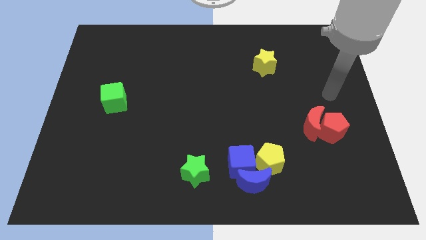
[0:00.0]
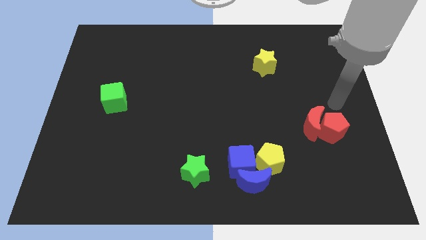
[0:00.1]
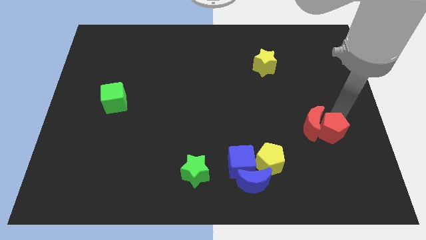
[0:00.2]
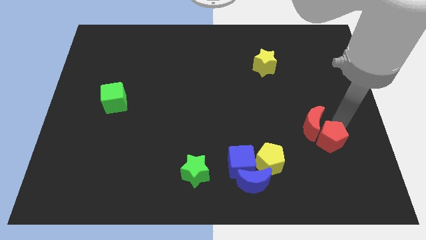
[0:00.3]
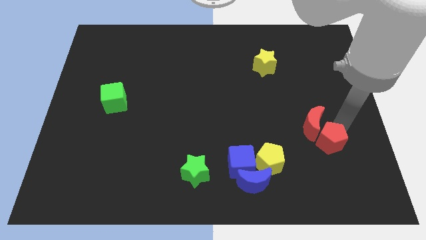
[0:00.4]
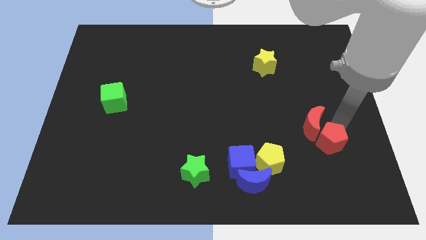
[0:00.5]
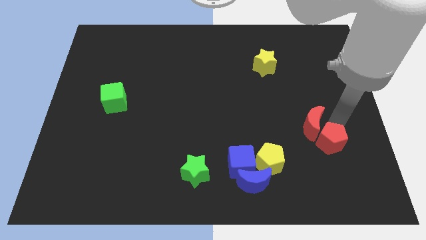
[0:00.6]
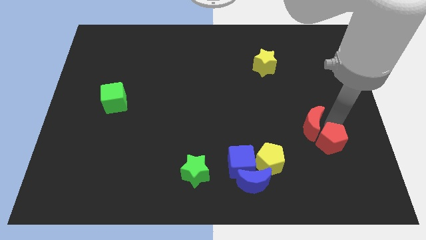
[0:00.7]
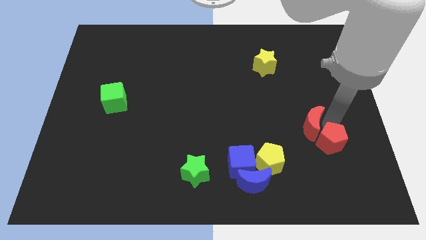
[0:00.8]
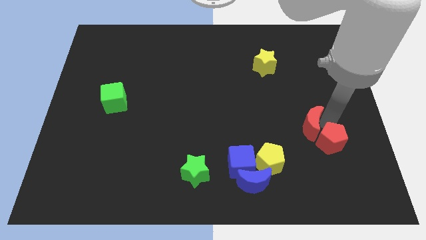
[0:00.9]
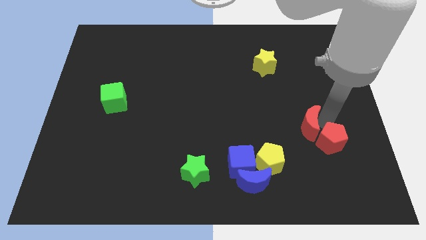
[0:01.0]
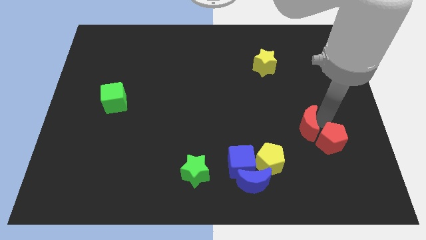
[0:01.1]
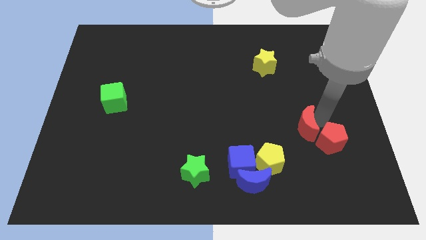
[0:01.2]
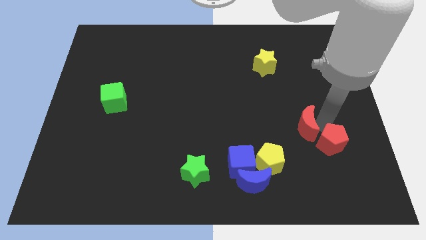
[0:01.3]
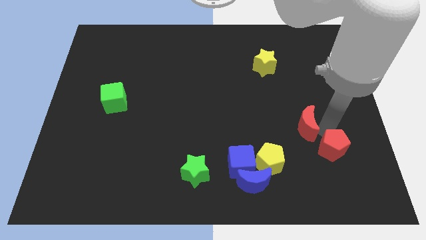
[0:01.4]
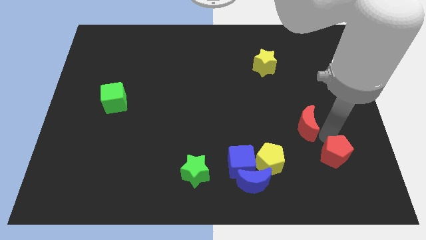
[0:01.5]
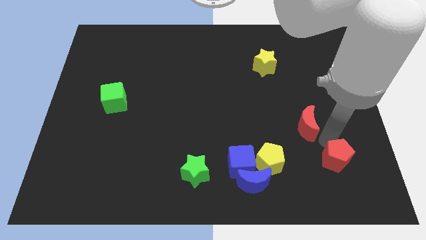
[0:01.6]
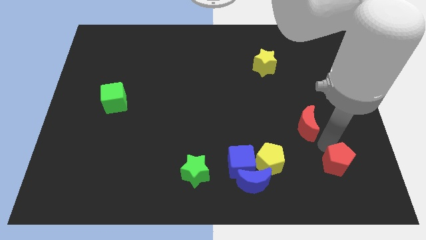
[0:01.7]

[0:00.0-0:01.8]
separate the red moon from the red pentagon

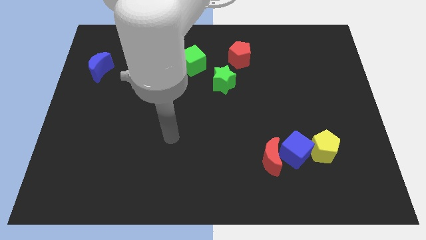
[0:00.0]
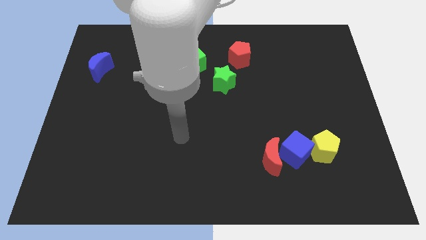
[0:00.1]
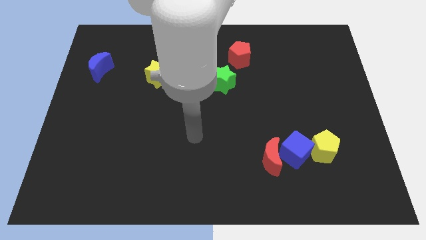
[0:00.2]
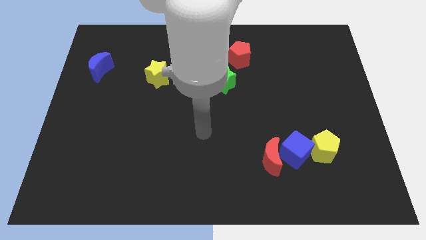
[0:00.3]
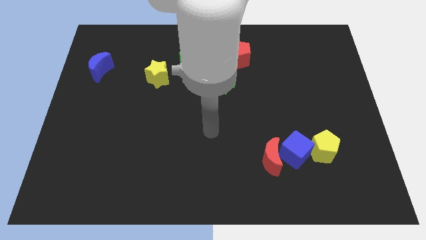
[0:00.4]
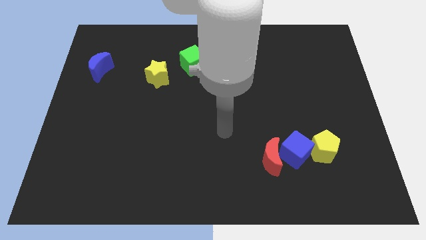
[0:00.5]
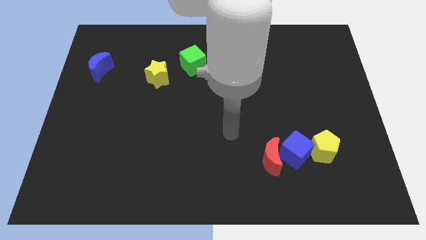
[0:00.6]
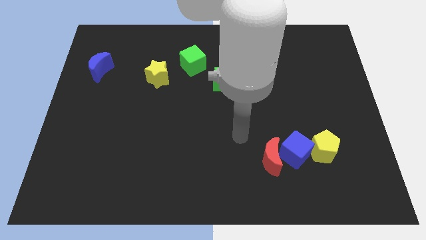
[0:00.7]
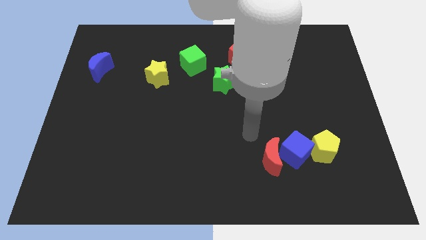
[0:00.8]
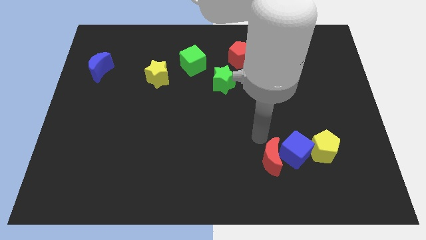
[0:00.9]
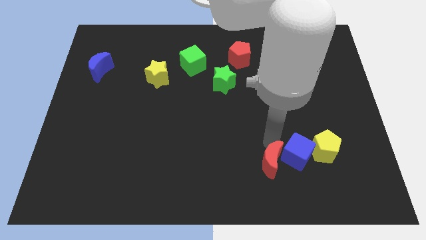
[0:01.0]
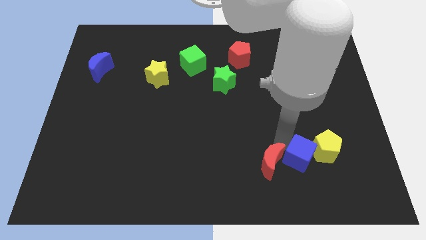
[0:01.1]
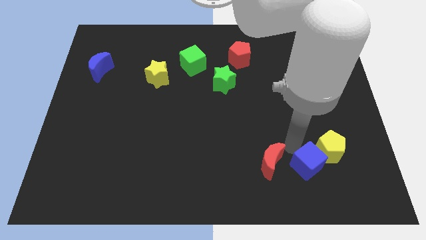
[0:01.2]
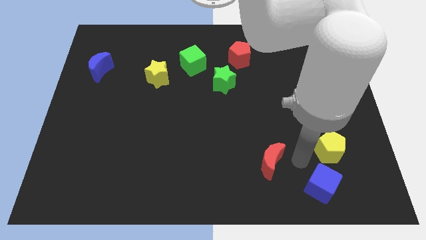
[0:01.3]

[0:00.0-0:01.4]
separate the red moon from the blue cube

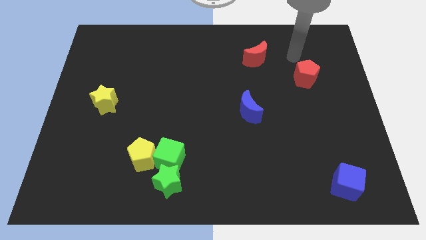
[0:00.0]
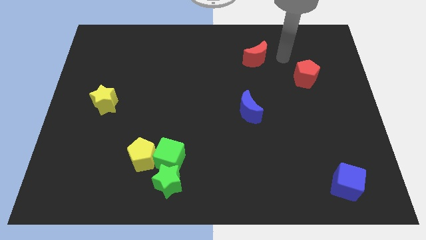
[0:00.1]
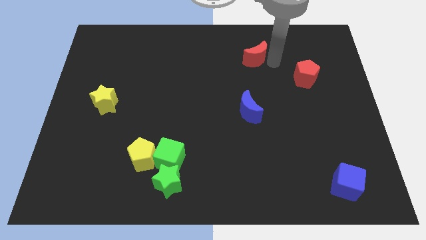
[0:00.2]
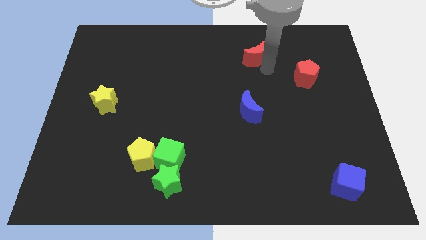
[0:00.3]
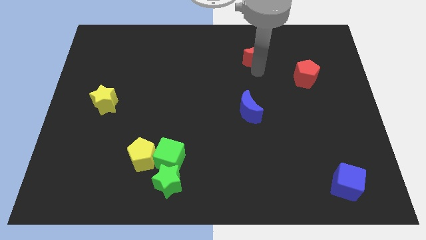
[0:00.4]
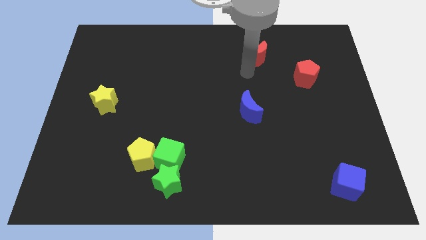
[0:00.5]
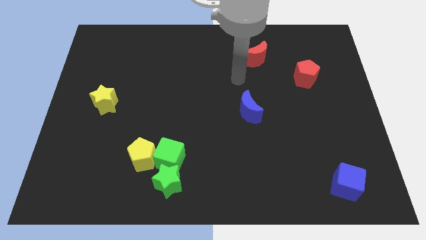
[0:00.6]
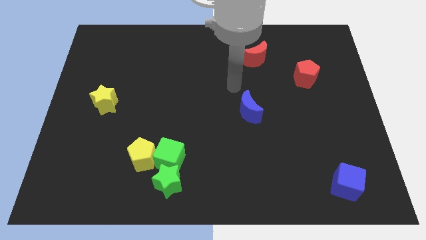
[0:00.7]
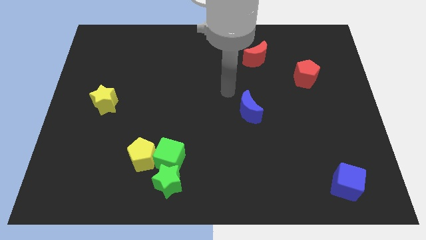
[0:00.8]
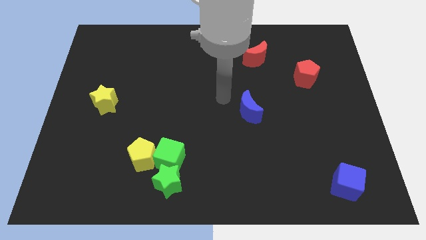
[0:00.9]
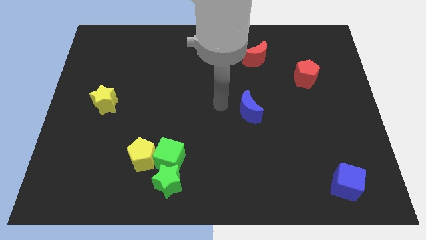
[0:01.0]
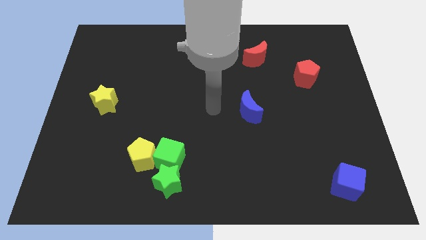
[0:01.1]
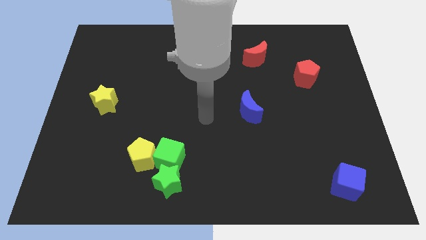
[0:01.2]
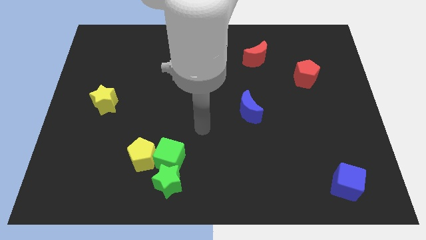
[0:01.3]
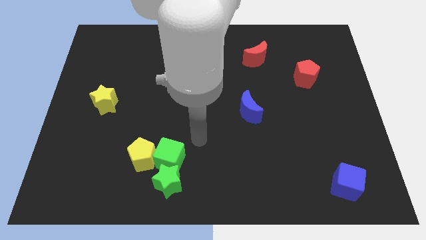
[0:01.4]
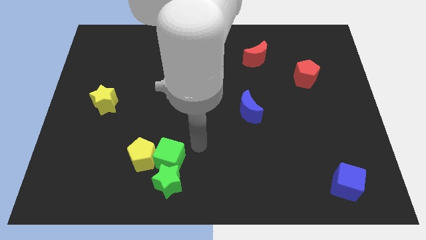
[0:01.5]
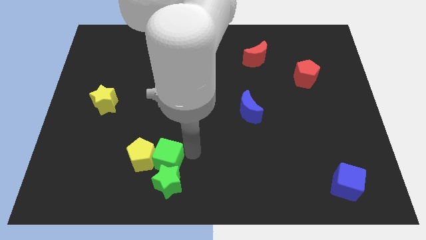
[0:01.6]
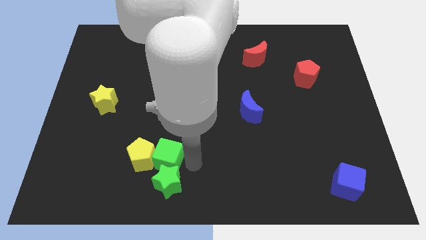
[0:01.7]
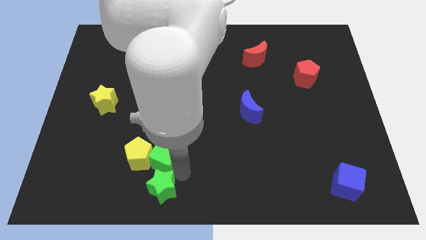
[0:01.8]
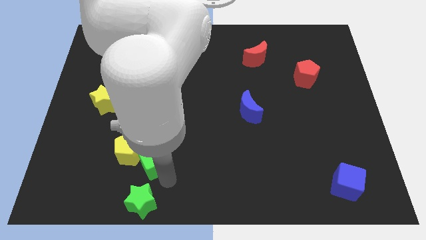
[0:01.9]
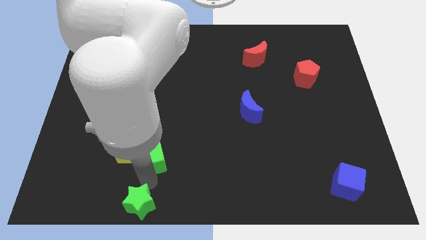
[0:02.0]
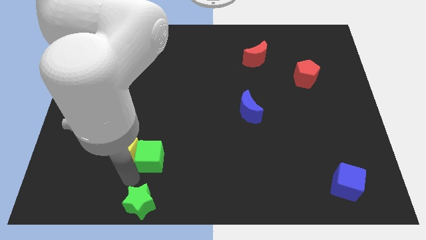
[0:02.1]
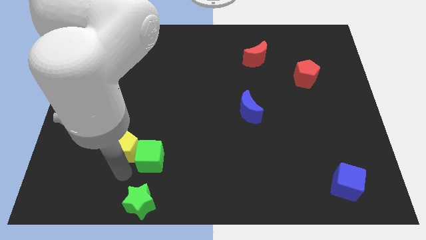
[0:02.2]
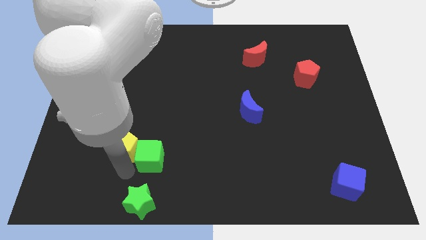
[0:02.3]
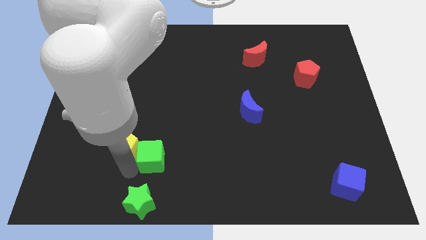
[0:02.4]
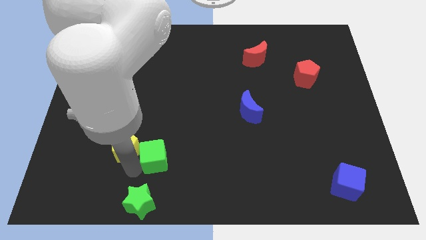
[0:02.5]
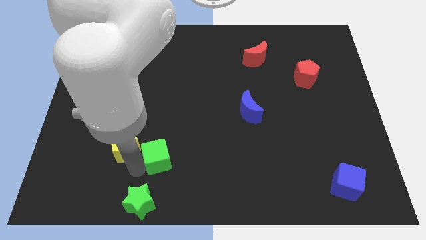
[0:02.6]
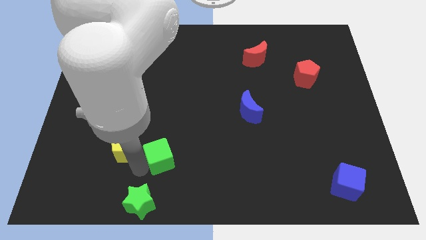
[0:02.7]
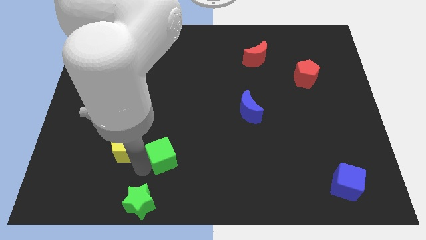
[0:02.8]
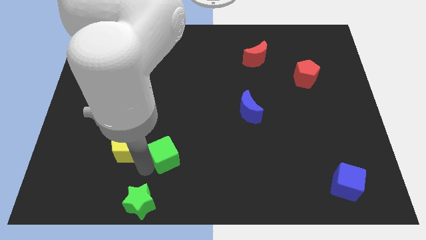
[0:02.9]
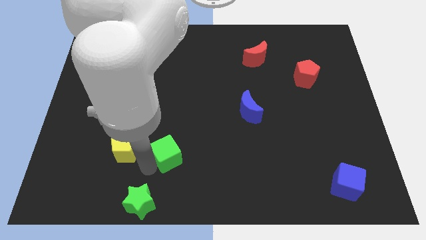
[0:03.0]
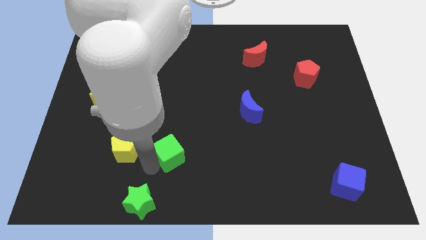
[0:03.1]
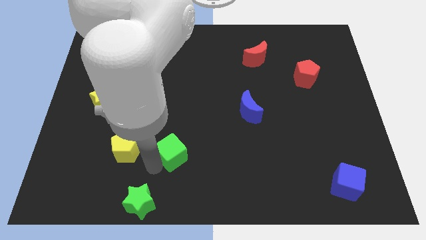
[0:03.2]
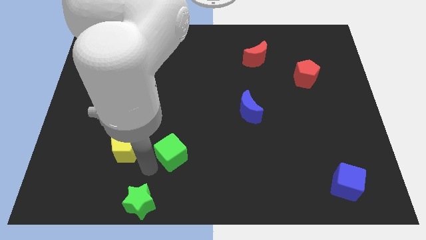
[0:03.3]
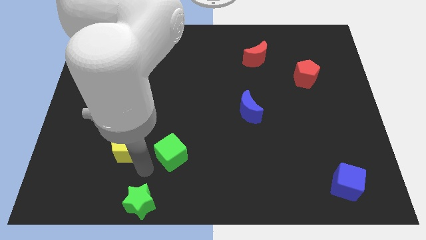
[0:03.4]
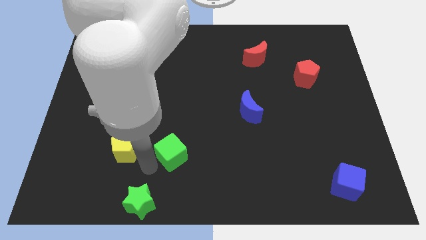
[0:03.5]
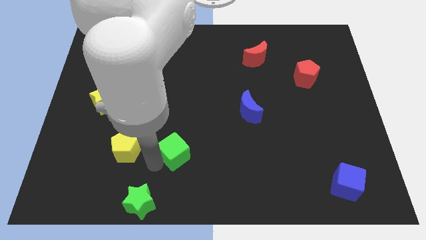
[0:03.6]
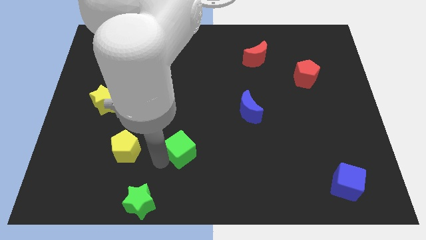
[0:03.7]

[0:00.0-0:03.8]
separate the green cube from the green star and yellow pentagon

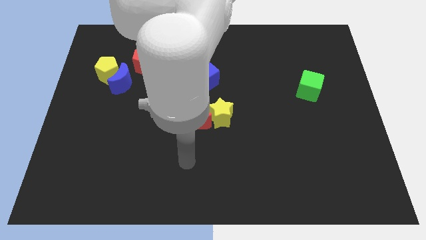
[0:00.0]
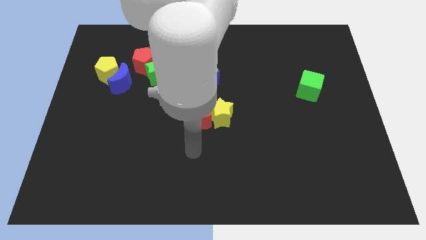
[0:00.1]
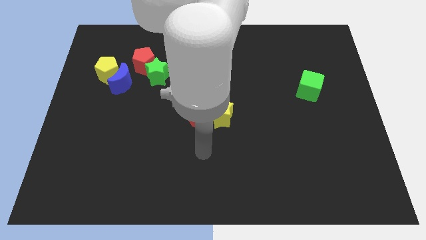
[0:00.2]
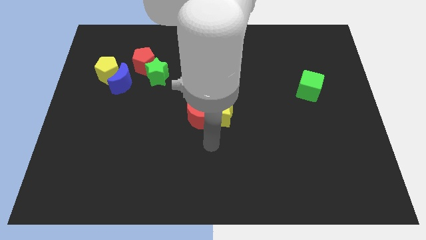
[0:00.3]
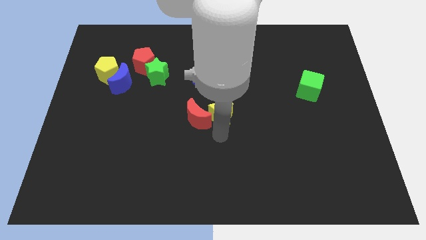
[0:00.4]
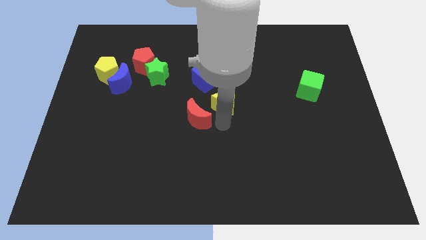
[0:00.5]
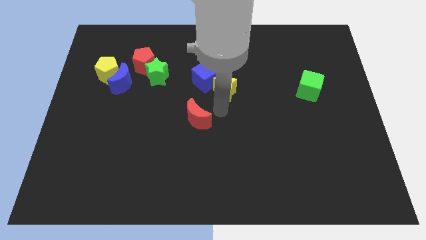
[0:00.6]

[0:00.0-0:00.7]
move the red moon away from the yellow star

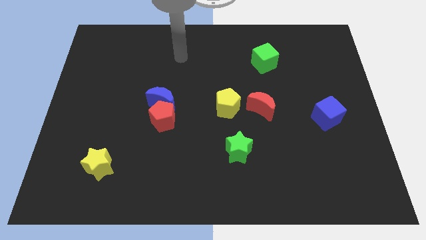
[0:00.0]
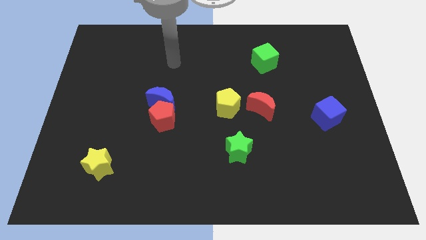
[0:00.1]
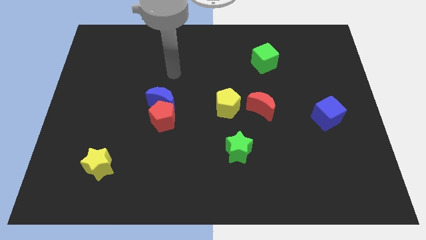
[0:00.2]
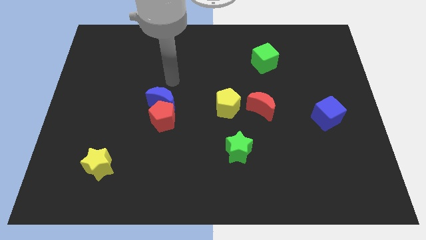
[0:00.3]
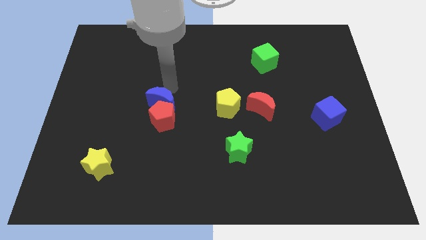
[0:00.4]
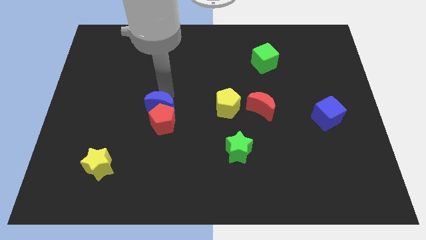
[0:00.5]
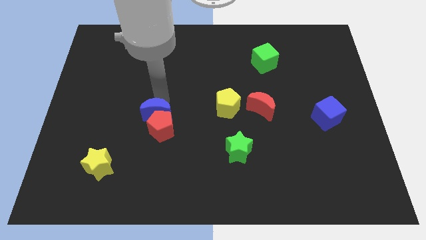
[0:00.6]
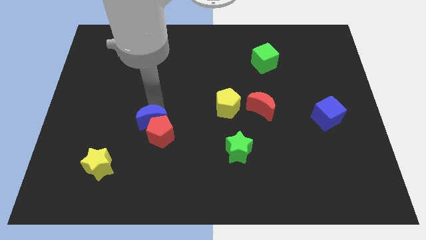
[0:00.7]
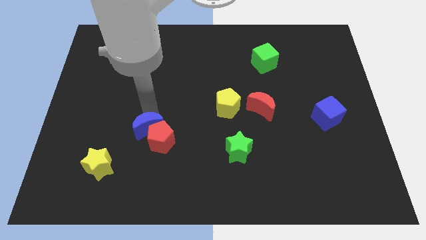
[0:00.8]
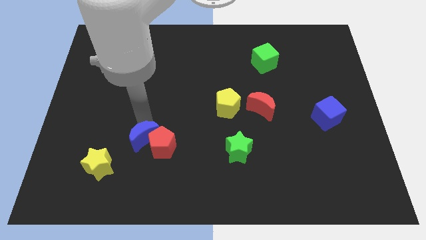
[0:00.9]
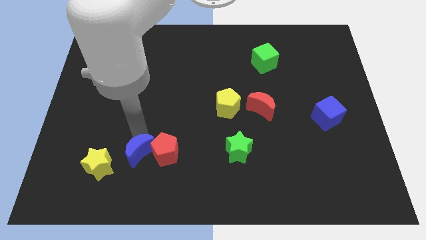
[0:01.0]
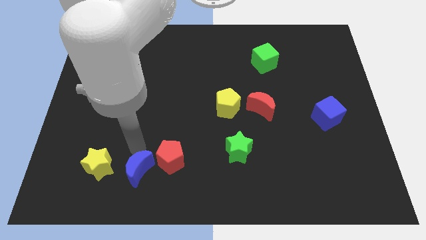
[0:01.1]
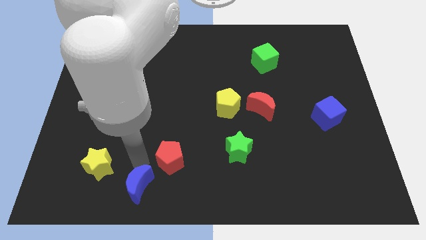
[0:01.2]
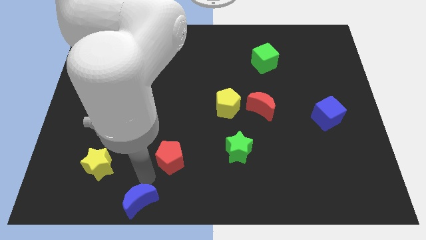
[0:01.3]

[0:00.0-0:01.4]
move the red pentagon away from the blue moon

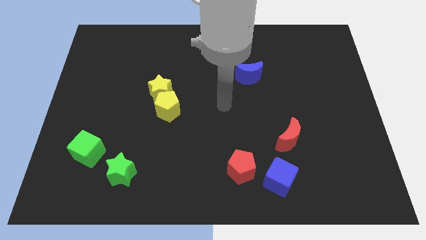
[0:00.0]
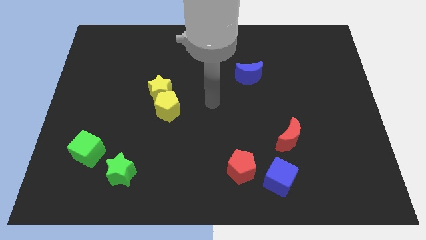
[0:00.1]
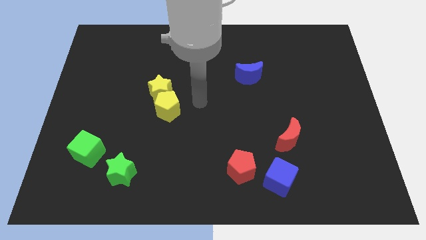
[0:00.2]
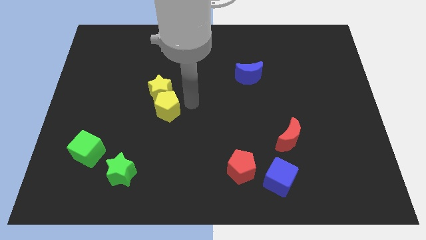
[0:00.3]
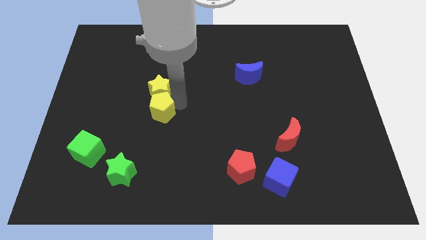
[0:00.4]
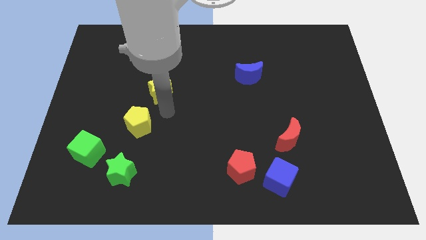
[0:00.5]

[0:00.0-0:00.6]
move the yellow star away from the yellow pentagon
